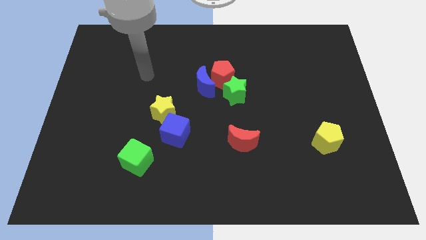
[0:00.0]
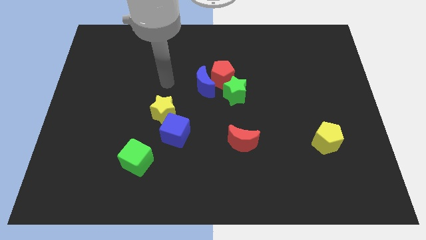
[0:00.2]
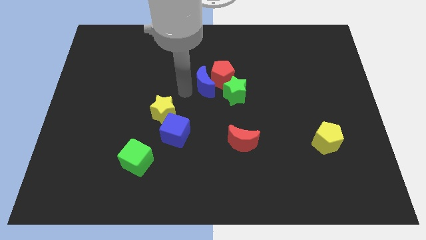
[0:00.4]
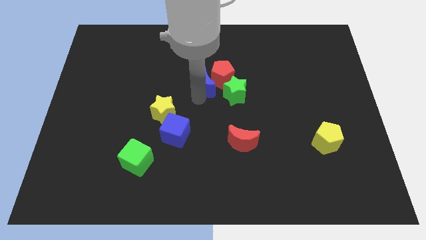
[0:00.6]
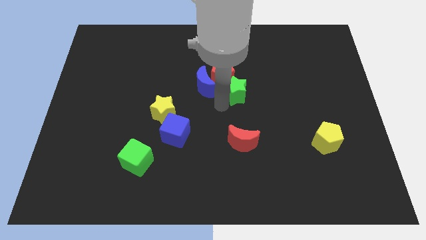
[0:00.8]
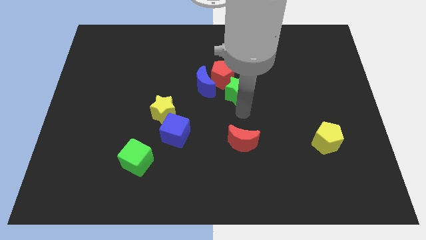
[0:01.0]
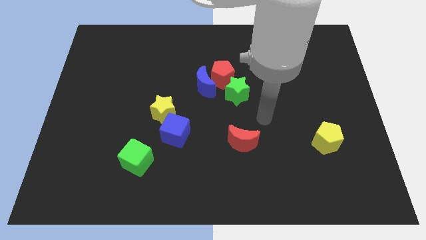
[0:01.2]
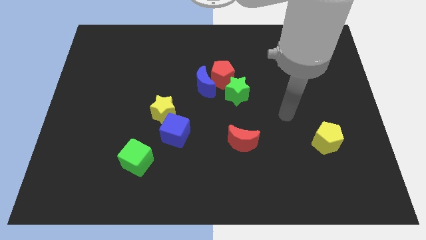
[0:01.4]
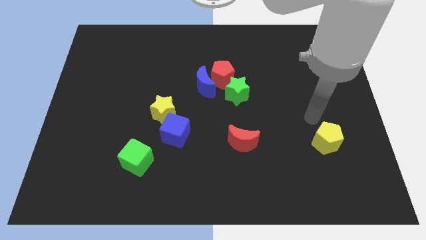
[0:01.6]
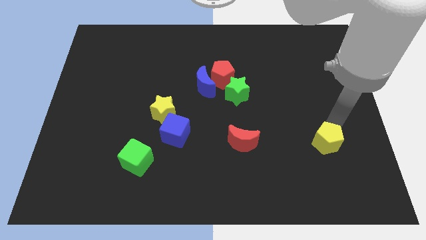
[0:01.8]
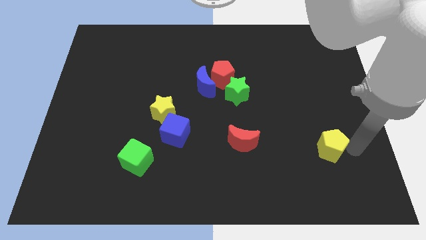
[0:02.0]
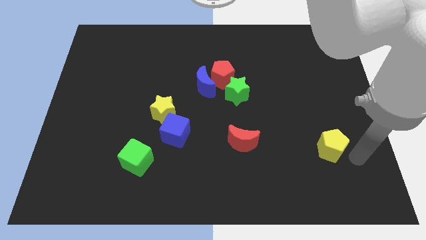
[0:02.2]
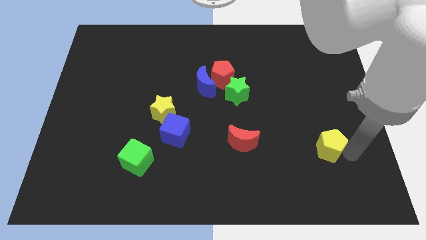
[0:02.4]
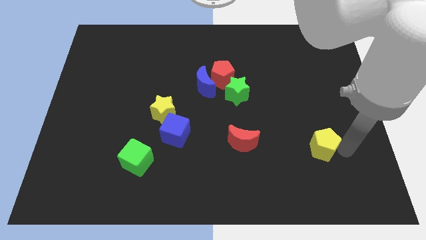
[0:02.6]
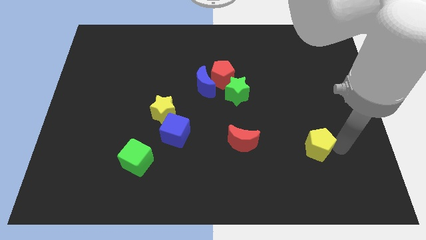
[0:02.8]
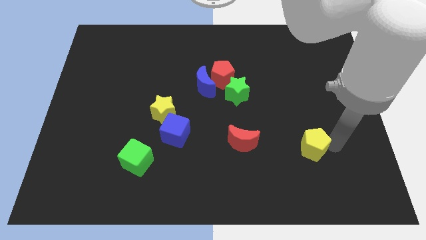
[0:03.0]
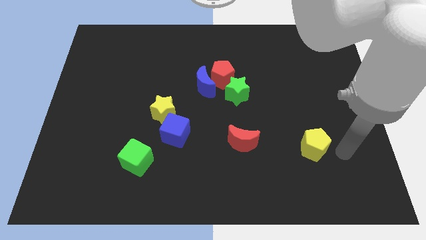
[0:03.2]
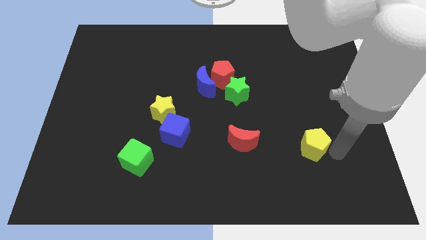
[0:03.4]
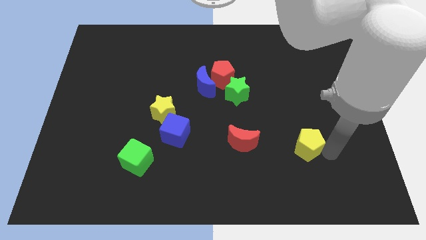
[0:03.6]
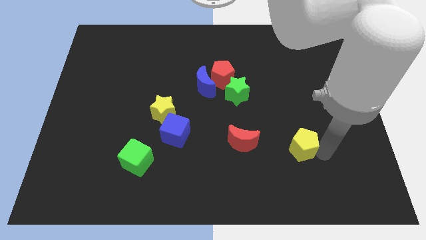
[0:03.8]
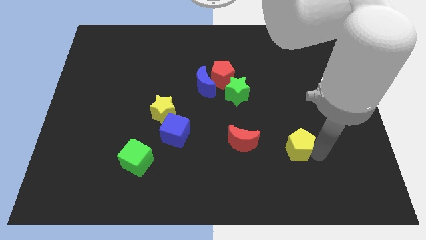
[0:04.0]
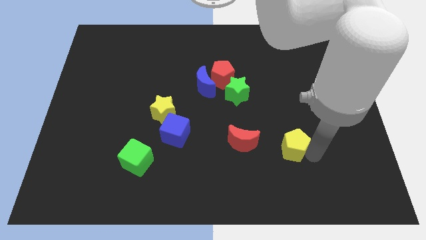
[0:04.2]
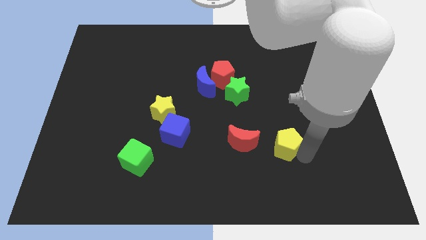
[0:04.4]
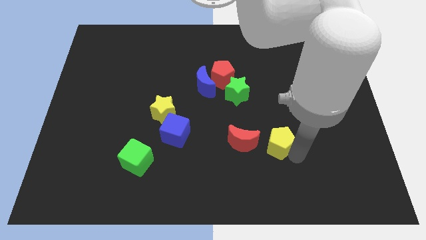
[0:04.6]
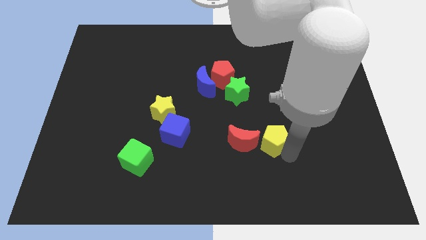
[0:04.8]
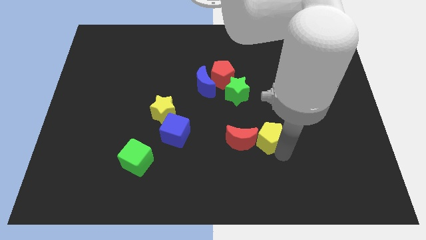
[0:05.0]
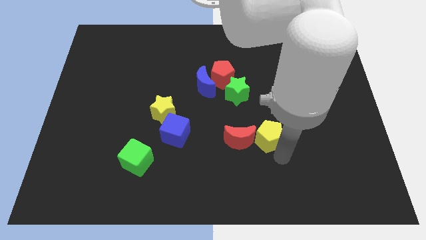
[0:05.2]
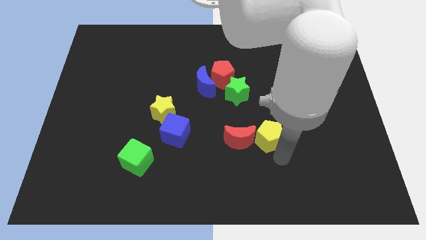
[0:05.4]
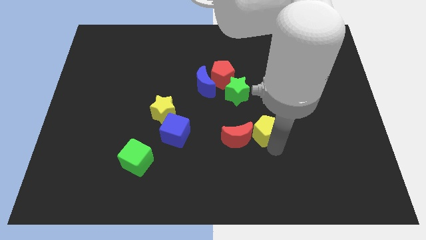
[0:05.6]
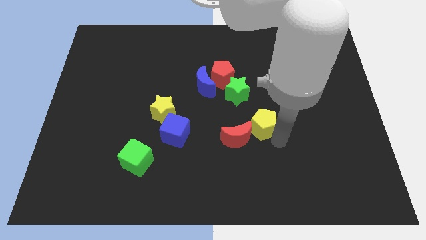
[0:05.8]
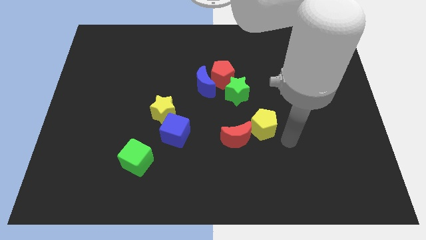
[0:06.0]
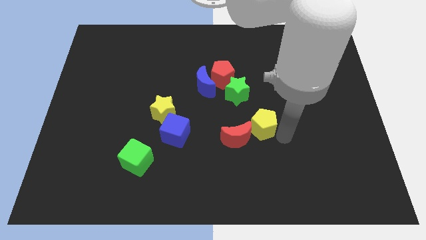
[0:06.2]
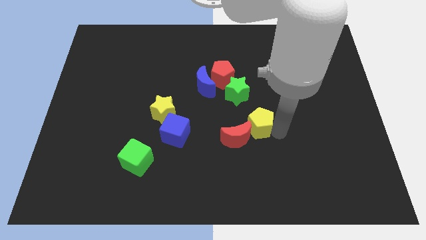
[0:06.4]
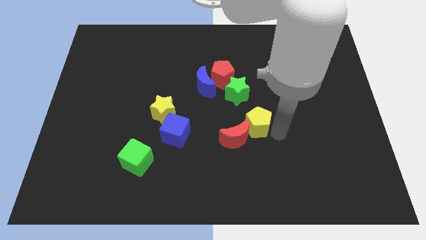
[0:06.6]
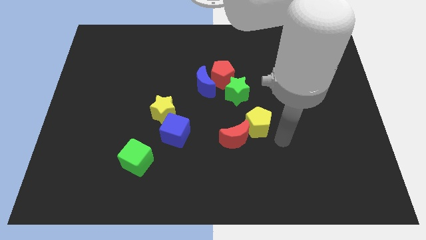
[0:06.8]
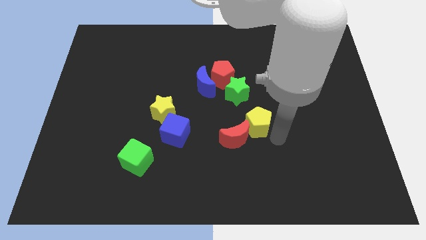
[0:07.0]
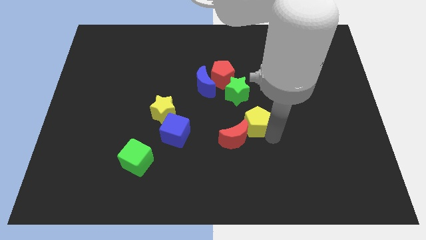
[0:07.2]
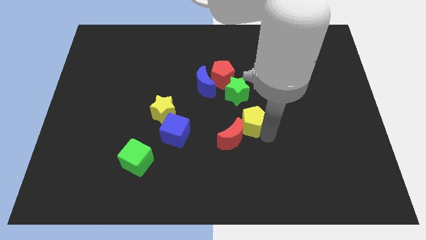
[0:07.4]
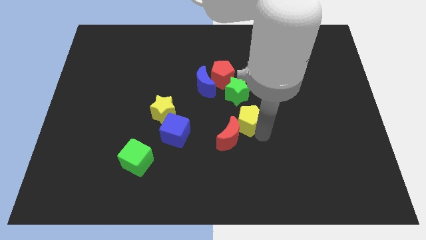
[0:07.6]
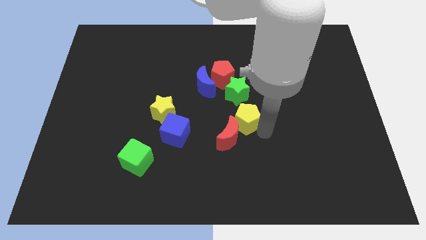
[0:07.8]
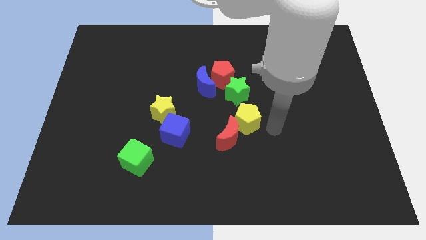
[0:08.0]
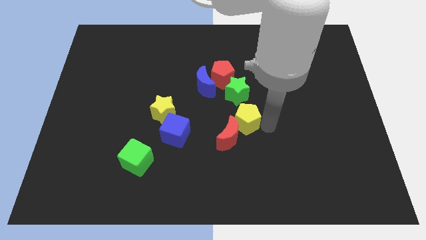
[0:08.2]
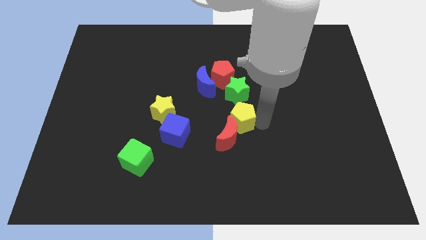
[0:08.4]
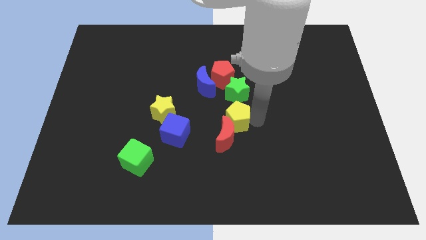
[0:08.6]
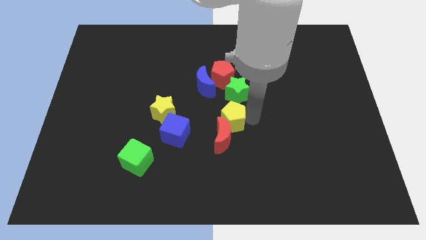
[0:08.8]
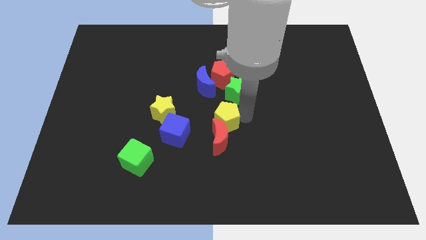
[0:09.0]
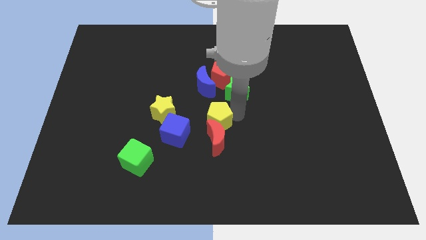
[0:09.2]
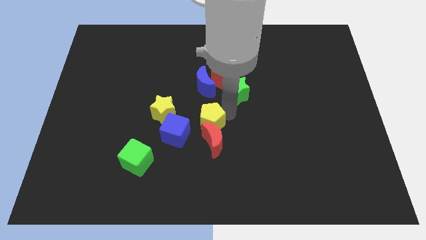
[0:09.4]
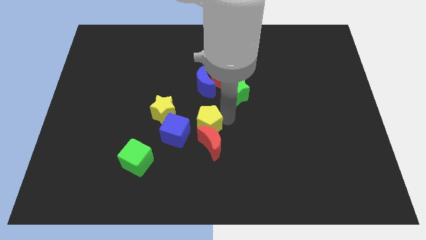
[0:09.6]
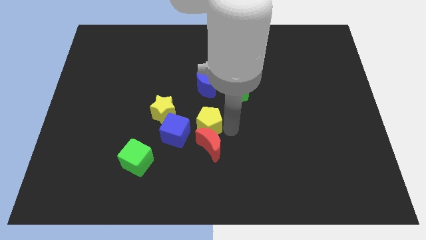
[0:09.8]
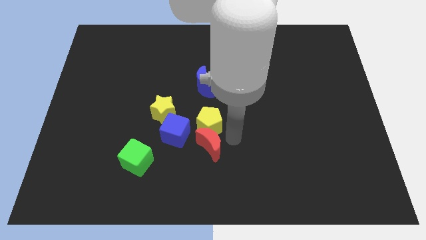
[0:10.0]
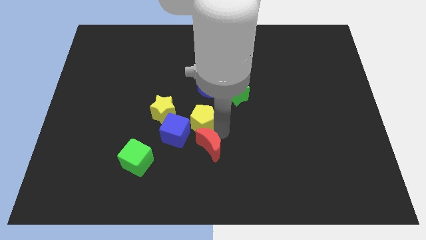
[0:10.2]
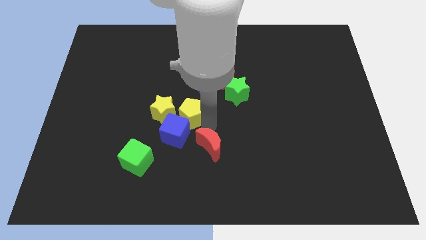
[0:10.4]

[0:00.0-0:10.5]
move the yellow pentagon close to the yellow star

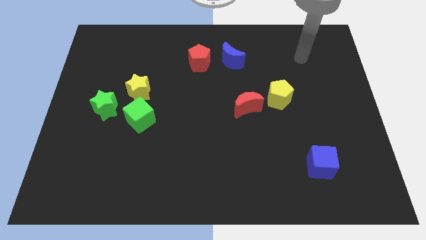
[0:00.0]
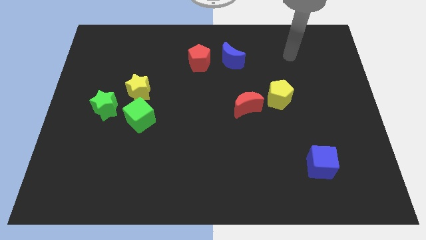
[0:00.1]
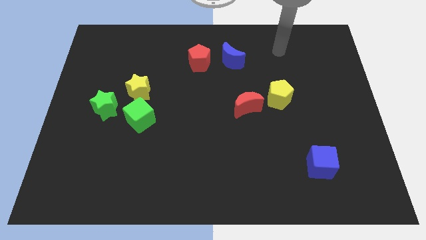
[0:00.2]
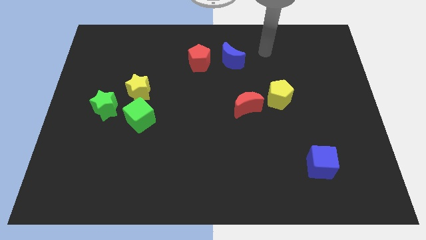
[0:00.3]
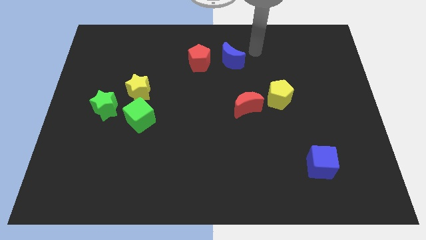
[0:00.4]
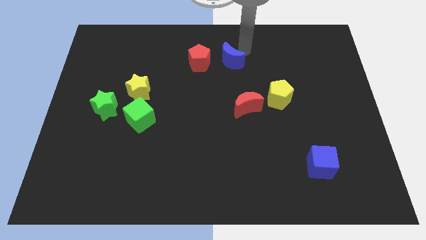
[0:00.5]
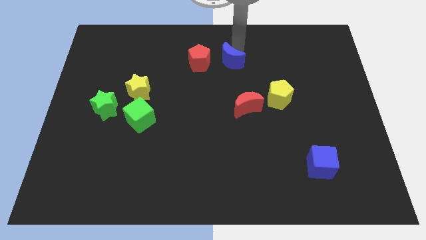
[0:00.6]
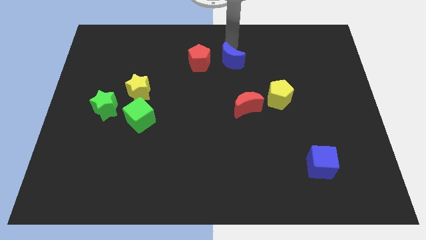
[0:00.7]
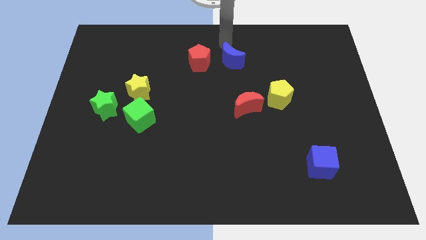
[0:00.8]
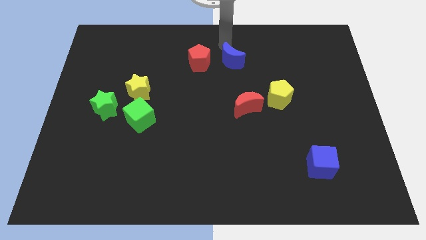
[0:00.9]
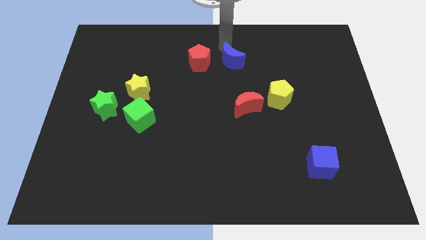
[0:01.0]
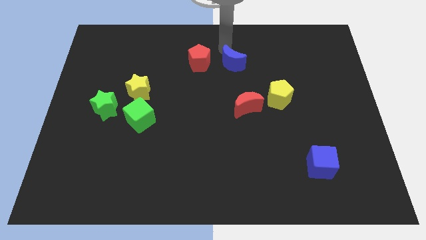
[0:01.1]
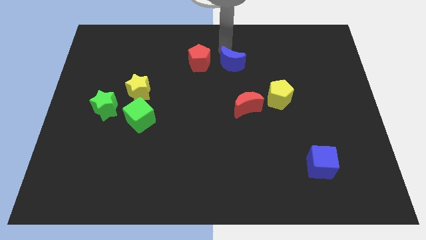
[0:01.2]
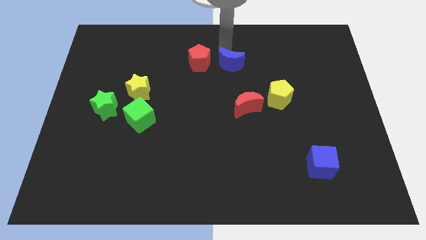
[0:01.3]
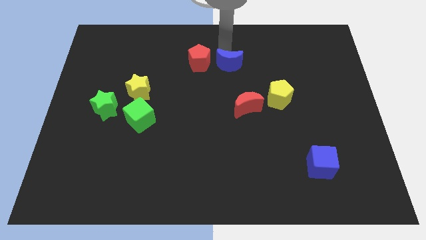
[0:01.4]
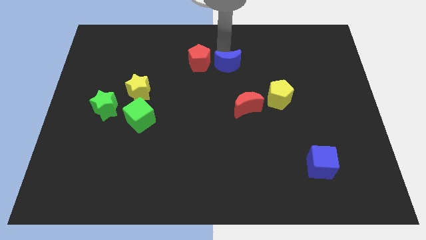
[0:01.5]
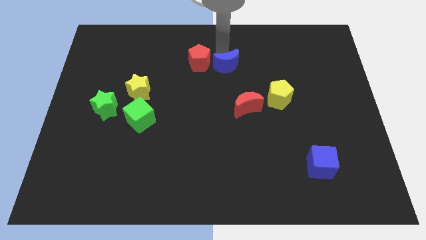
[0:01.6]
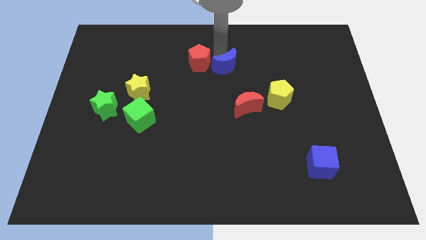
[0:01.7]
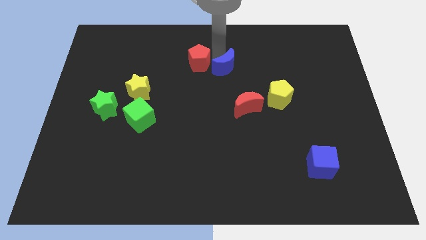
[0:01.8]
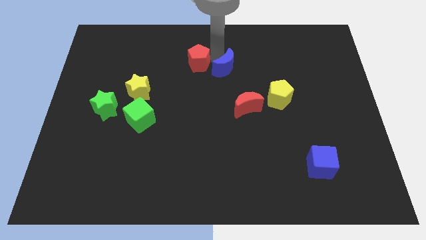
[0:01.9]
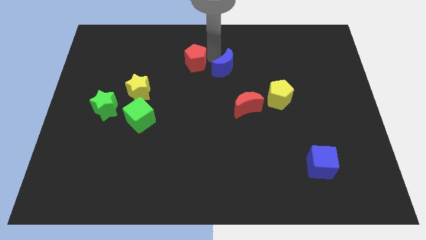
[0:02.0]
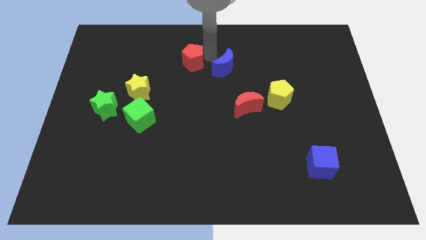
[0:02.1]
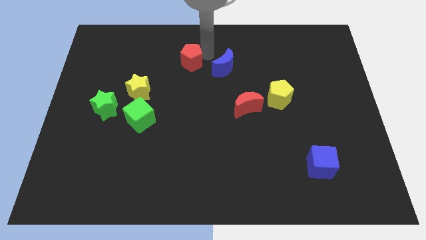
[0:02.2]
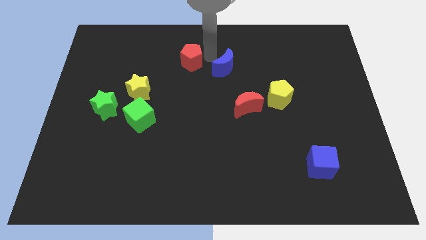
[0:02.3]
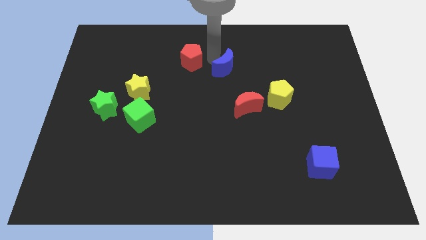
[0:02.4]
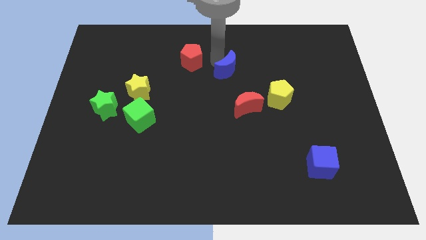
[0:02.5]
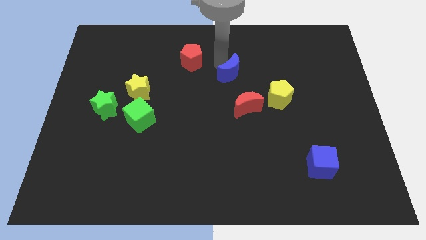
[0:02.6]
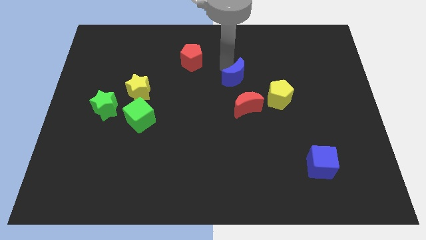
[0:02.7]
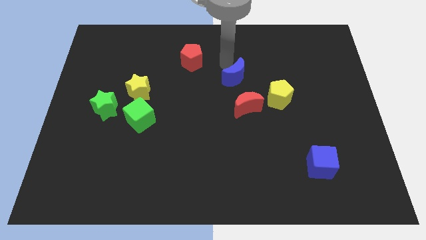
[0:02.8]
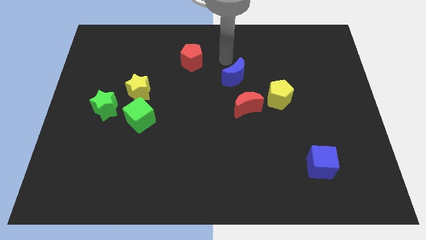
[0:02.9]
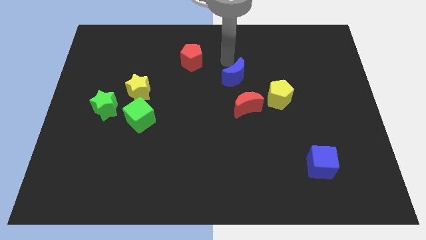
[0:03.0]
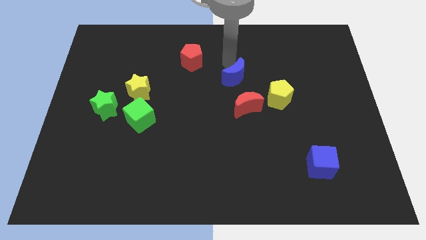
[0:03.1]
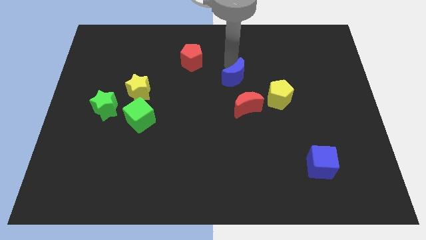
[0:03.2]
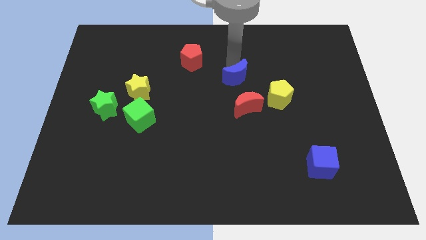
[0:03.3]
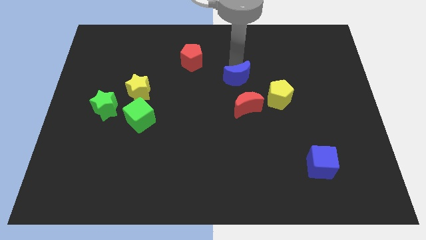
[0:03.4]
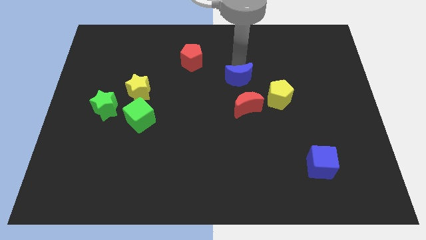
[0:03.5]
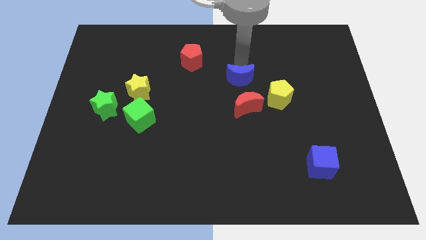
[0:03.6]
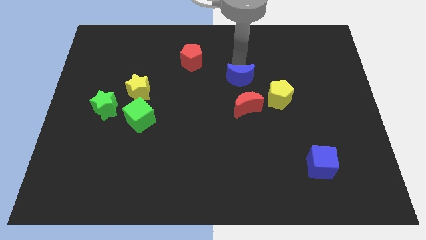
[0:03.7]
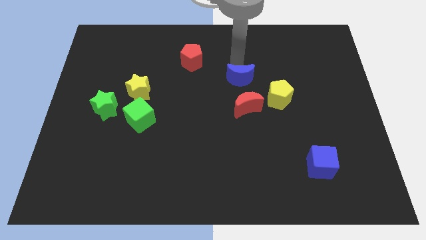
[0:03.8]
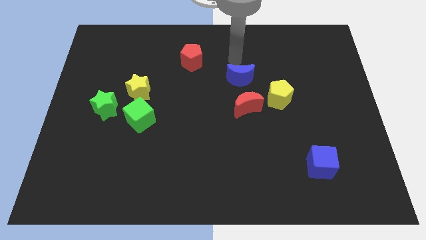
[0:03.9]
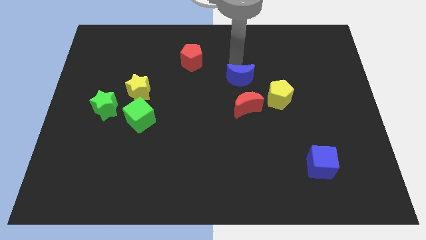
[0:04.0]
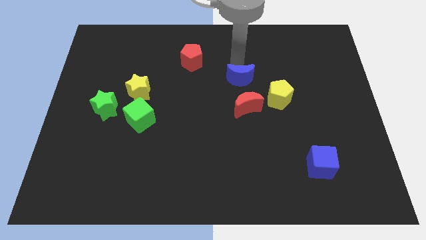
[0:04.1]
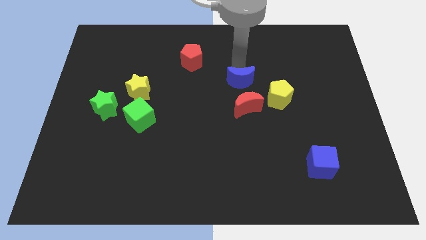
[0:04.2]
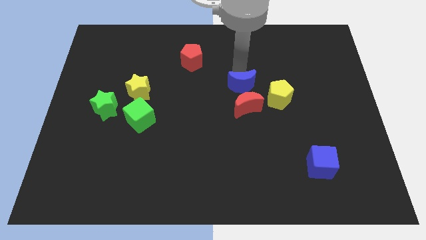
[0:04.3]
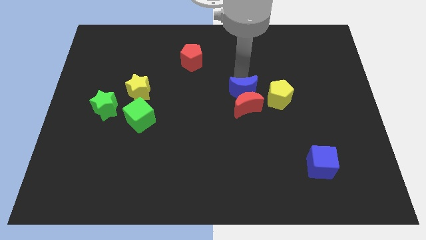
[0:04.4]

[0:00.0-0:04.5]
slide the blue moon to the red moon
